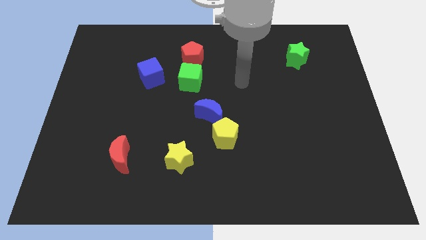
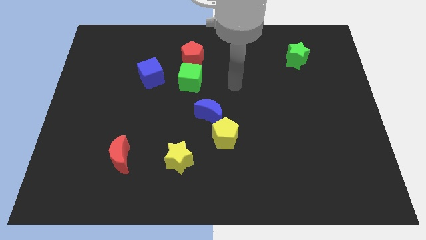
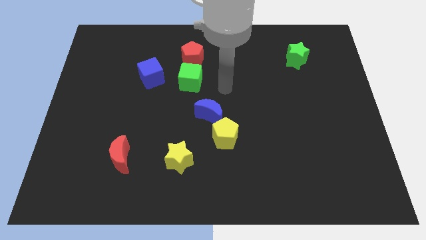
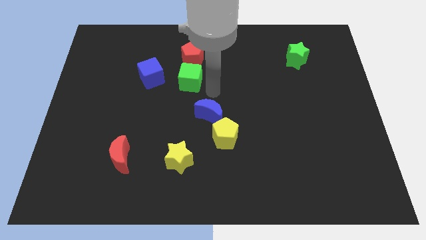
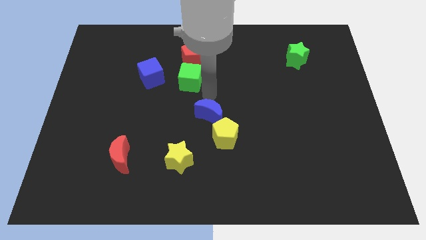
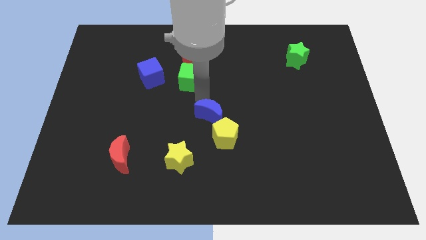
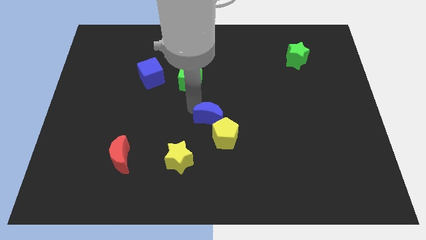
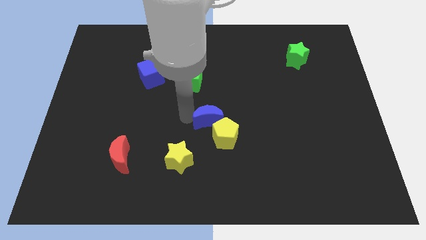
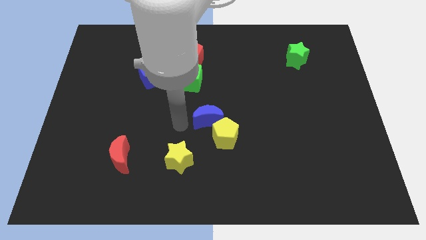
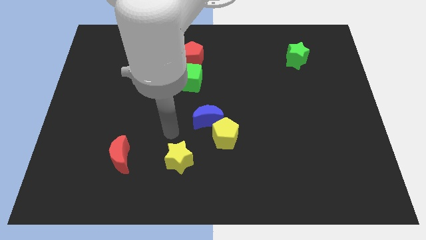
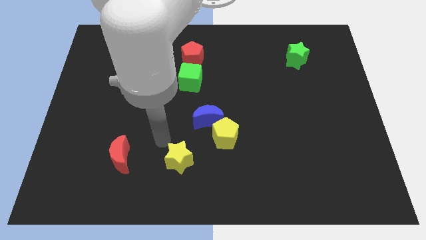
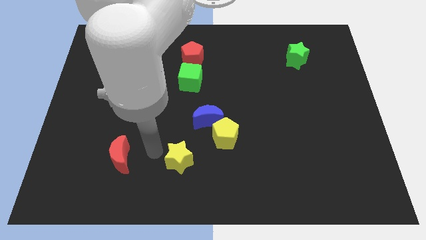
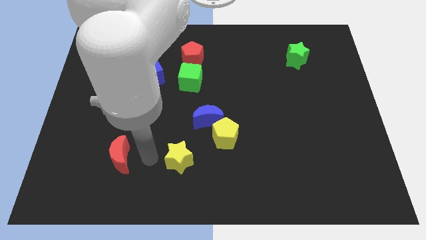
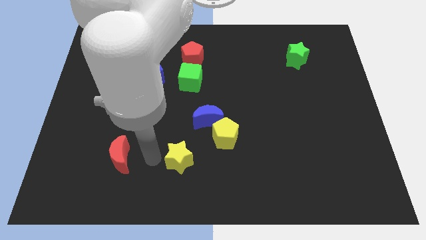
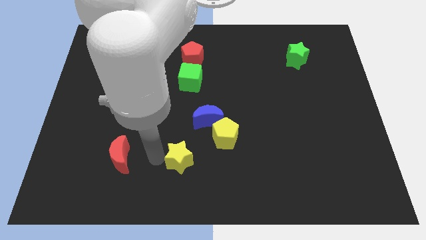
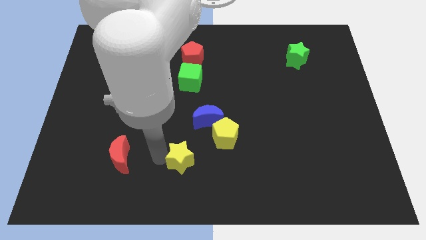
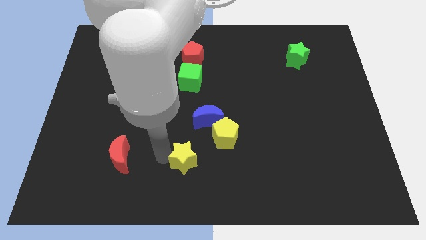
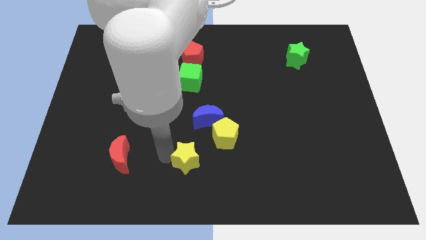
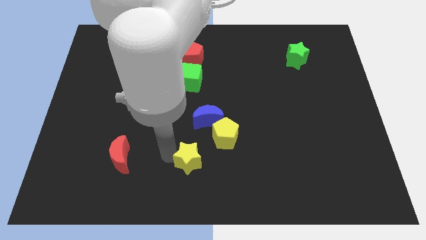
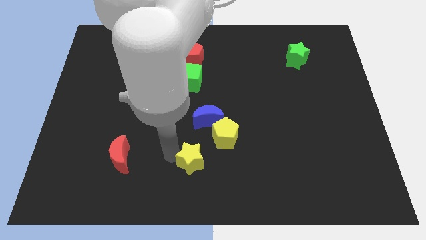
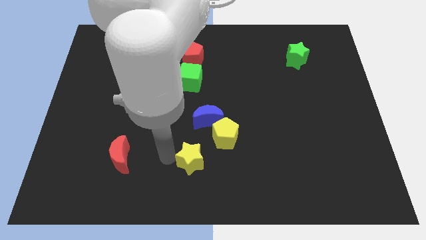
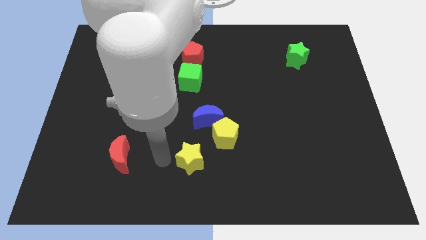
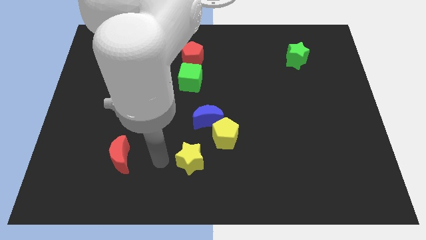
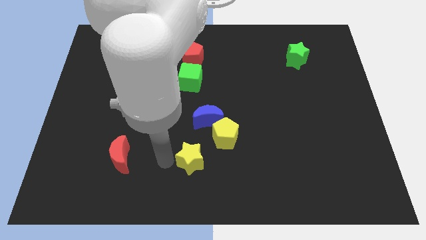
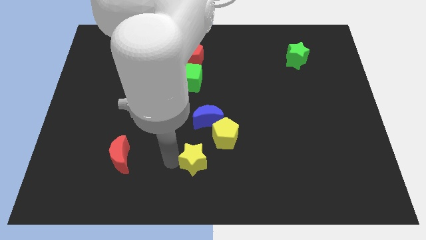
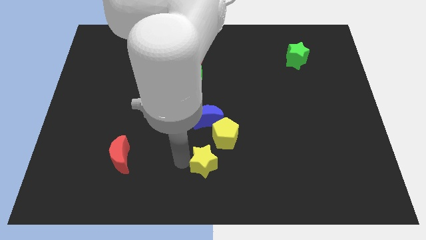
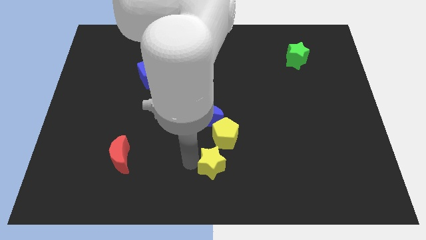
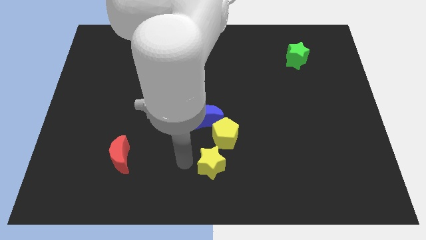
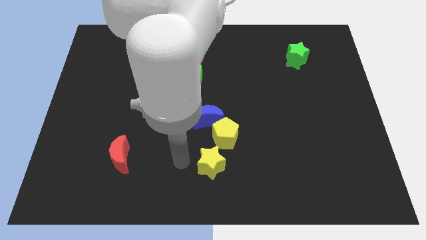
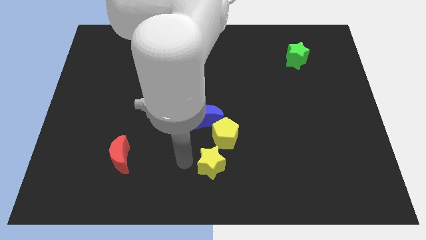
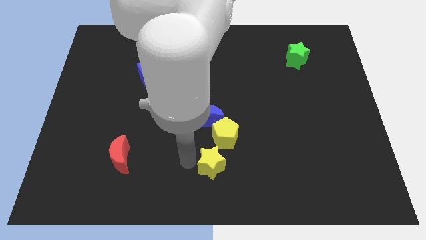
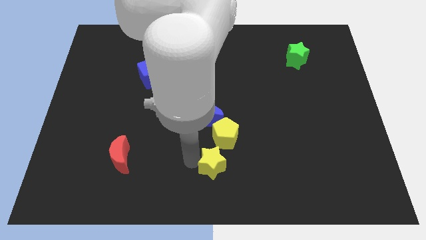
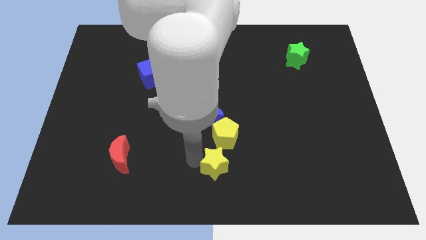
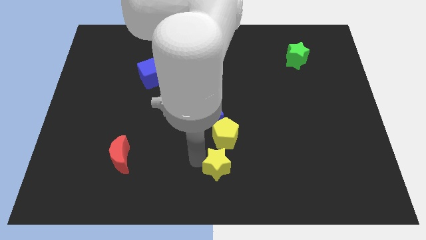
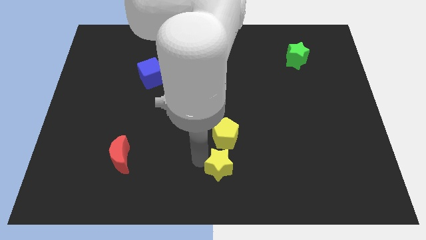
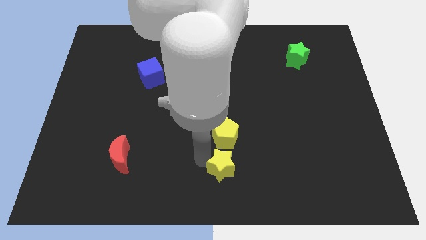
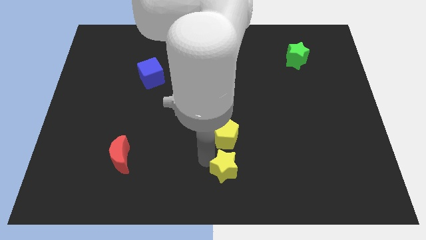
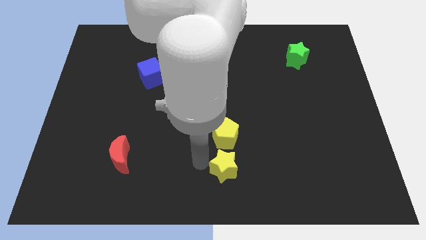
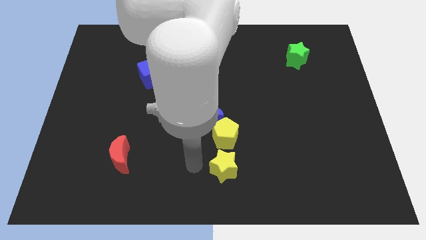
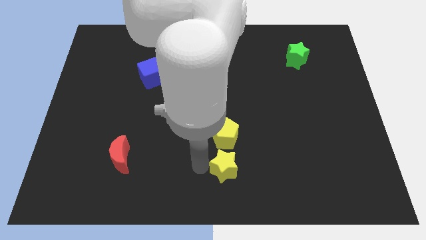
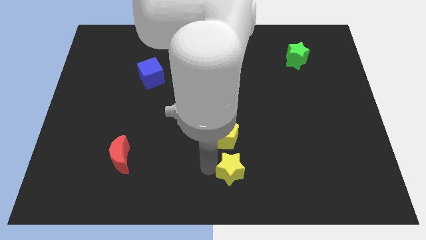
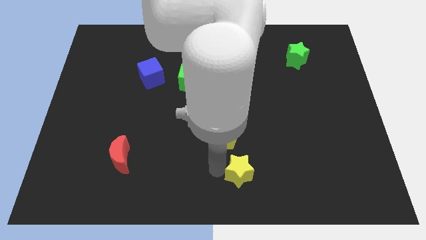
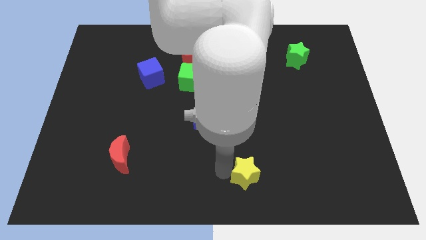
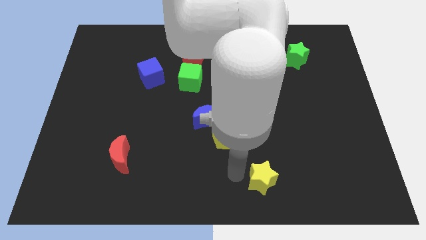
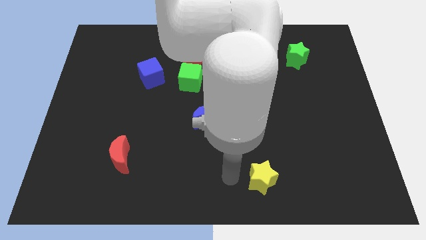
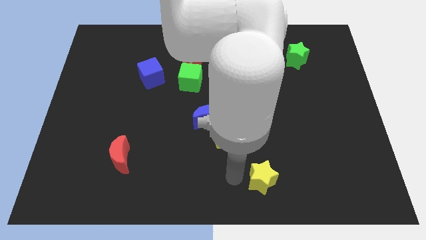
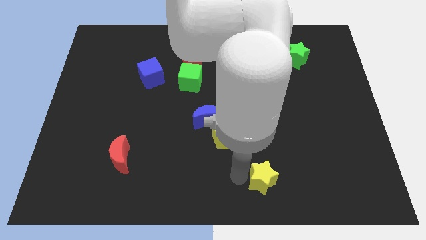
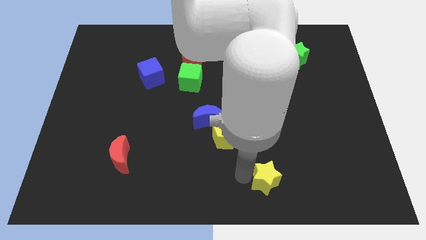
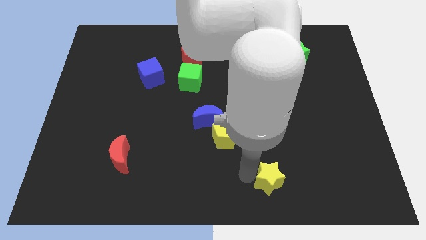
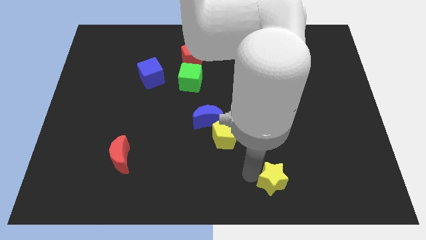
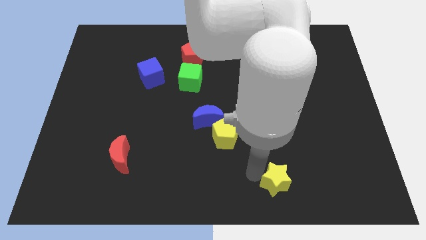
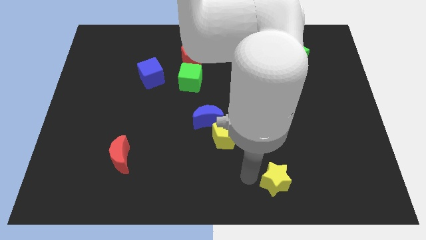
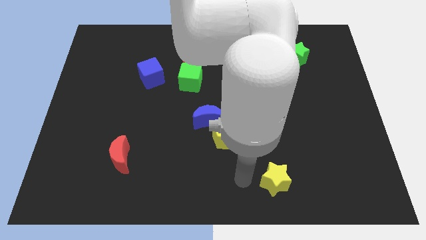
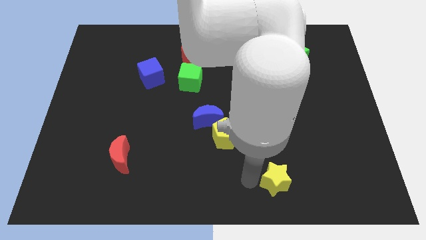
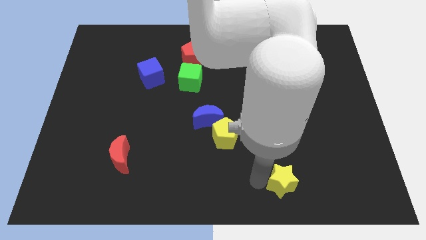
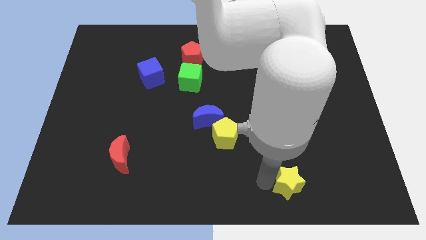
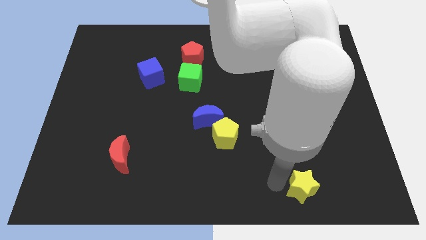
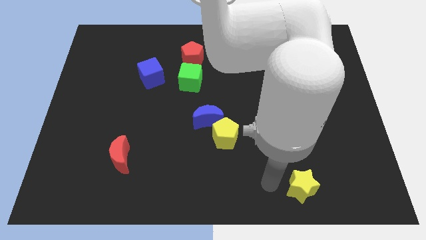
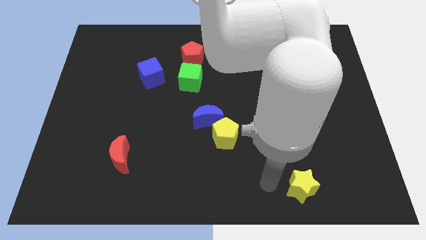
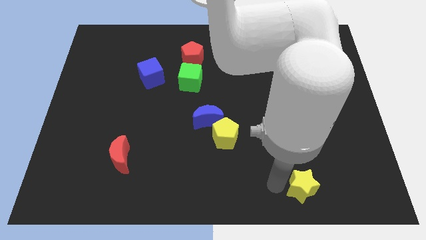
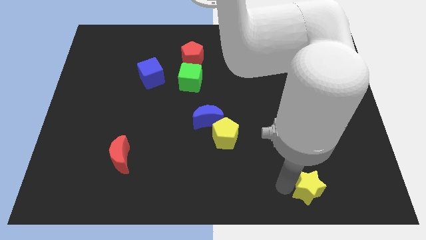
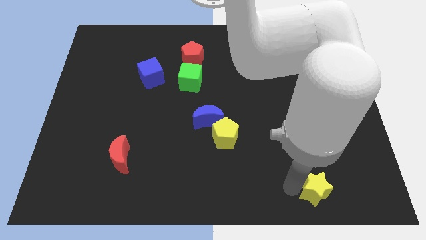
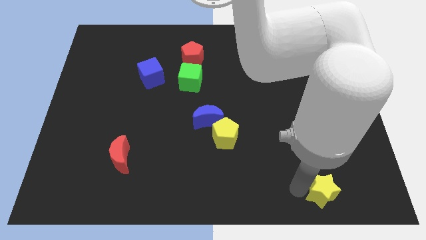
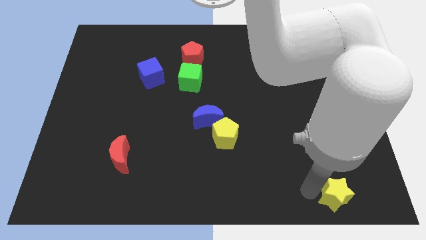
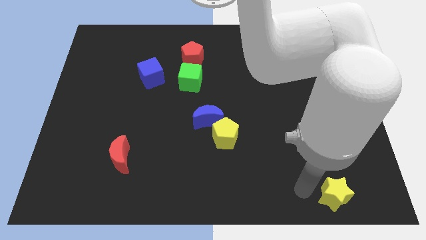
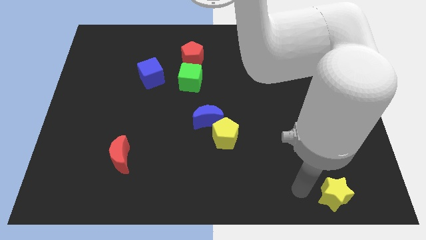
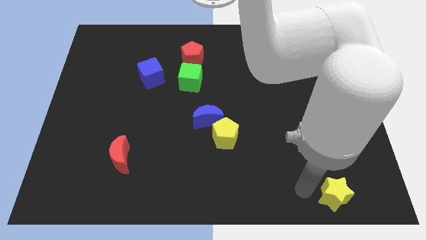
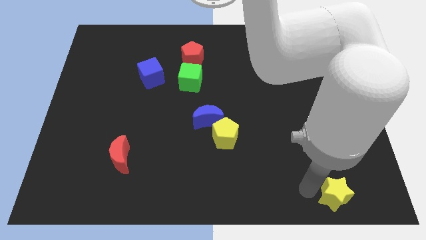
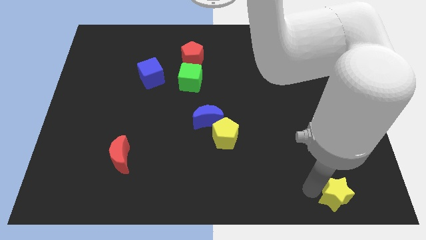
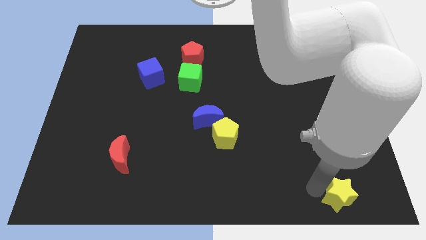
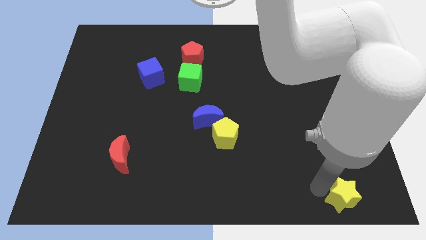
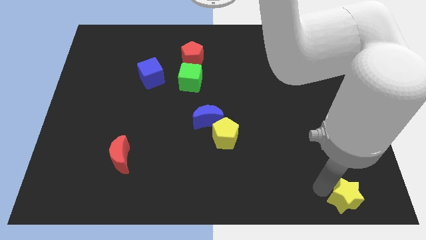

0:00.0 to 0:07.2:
put the yellow star to the bottom right
